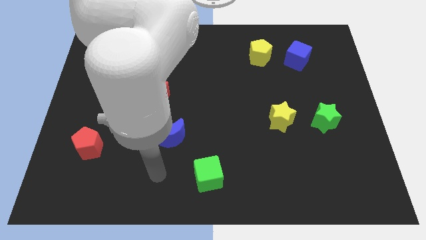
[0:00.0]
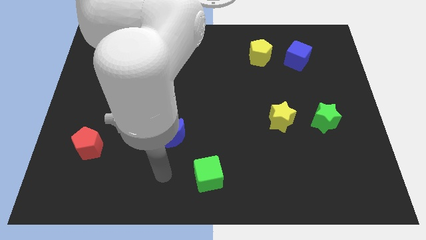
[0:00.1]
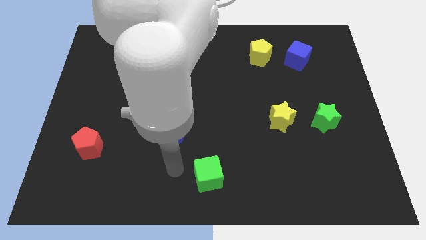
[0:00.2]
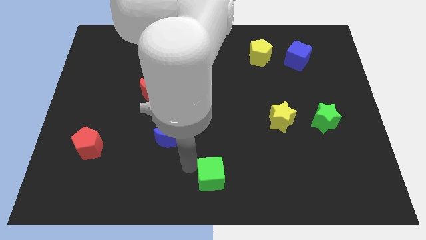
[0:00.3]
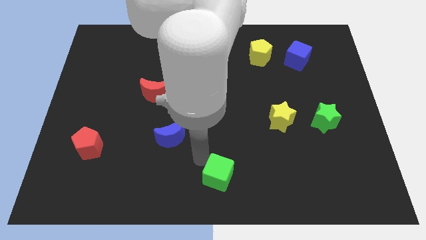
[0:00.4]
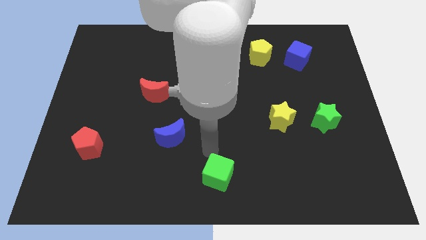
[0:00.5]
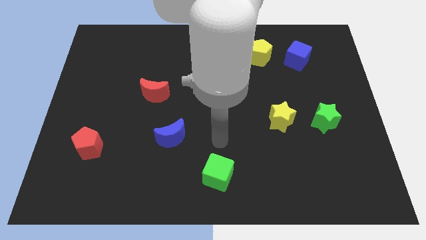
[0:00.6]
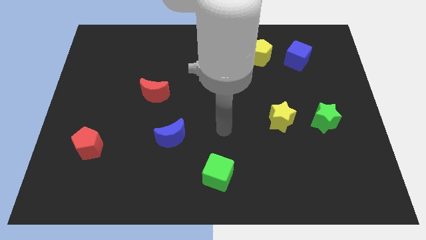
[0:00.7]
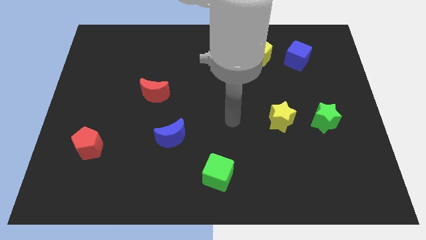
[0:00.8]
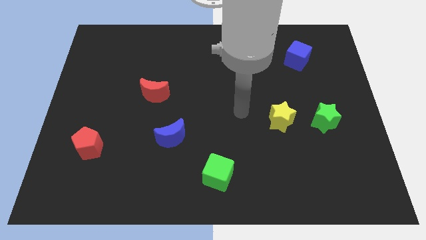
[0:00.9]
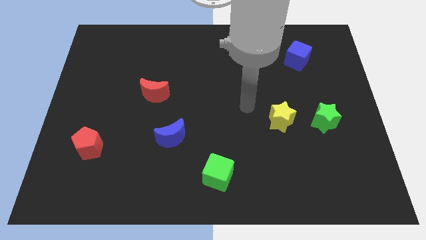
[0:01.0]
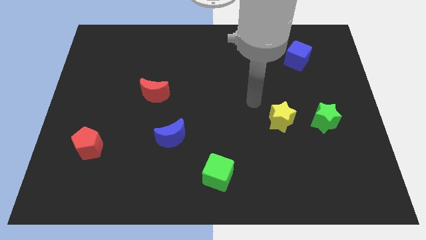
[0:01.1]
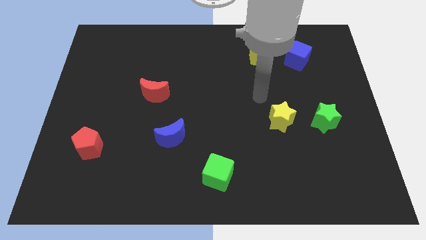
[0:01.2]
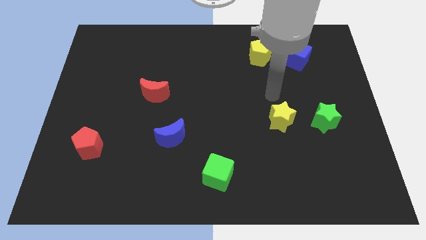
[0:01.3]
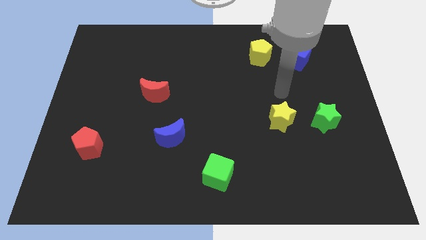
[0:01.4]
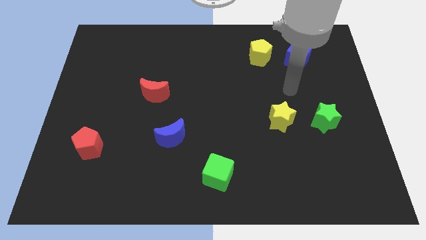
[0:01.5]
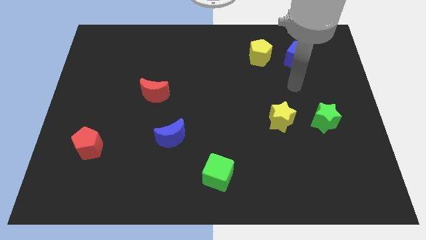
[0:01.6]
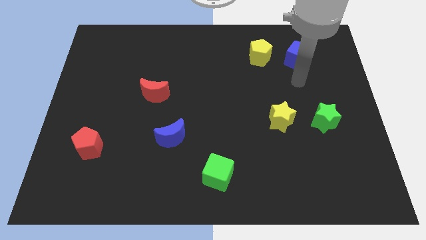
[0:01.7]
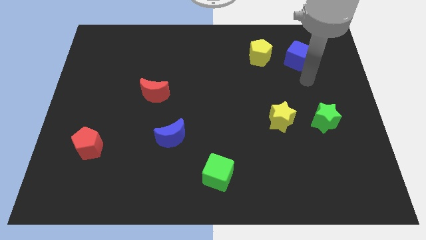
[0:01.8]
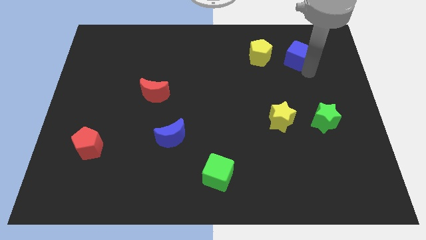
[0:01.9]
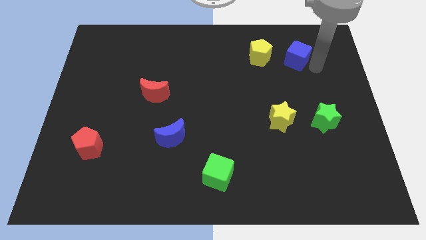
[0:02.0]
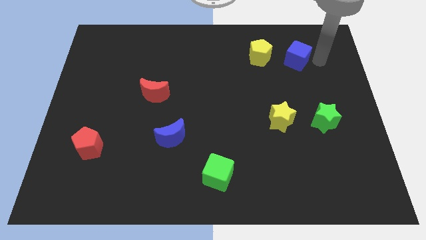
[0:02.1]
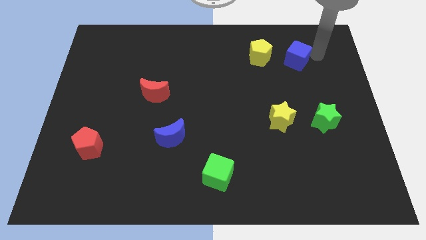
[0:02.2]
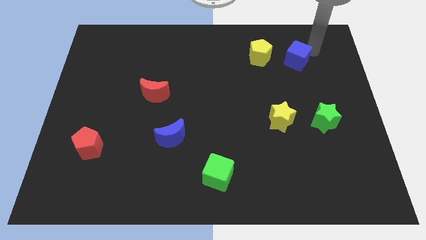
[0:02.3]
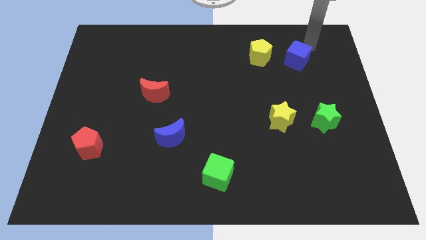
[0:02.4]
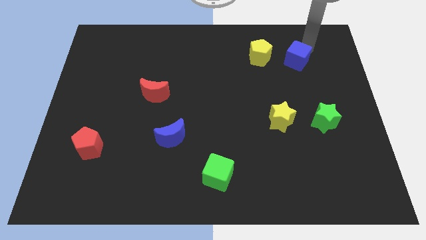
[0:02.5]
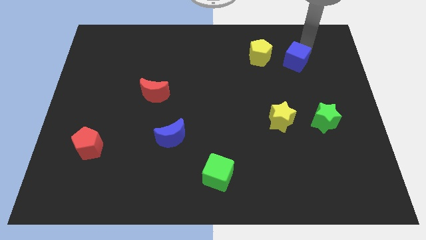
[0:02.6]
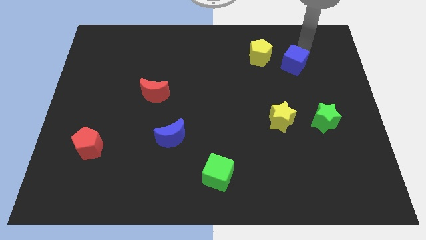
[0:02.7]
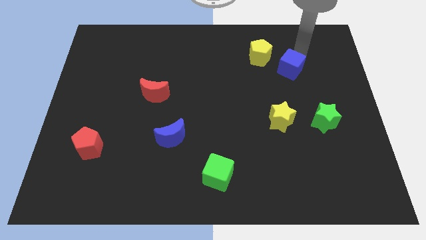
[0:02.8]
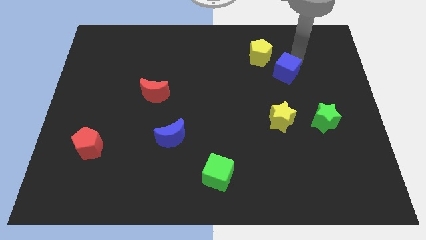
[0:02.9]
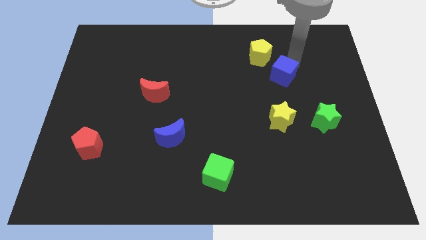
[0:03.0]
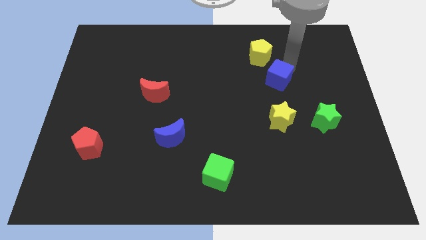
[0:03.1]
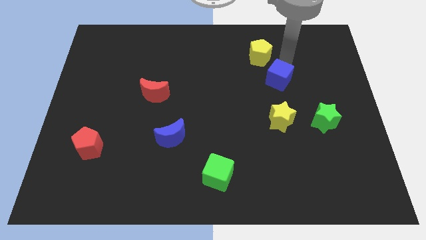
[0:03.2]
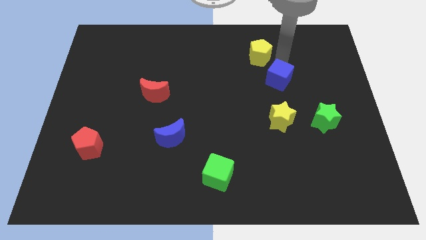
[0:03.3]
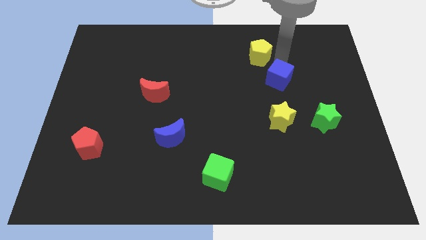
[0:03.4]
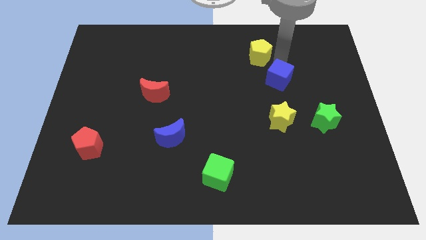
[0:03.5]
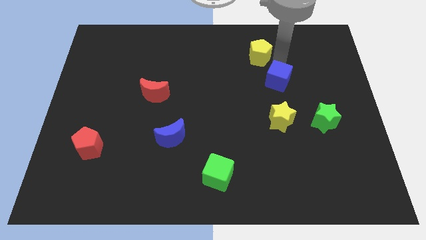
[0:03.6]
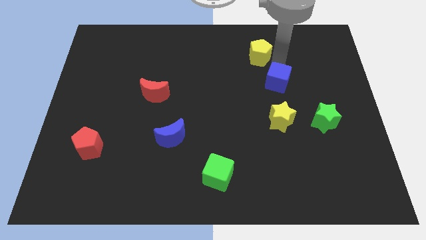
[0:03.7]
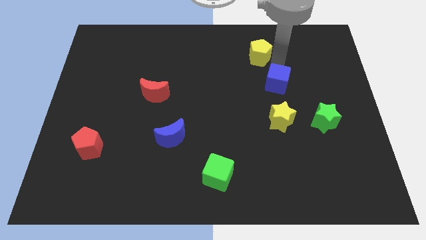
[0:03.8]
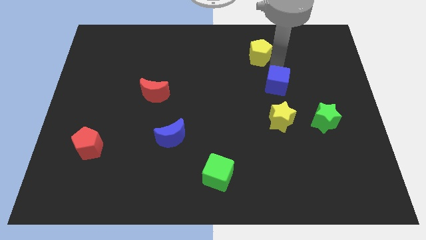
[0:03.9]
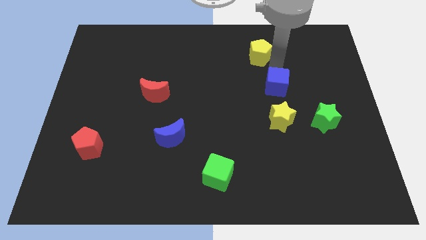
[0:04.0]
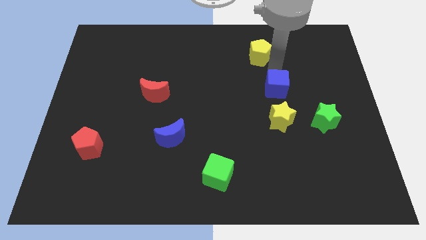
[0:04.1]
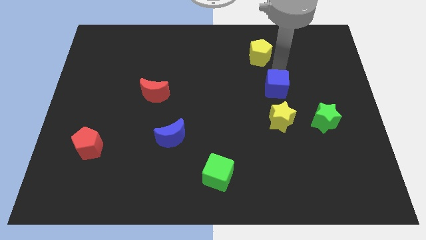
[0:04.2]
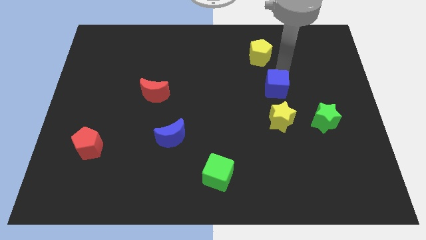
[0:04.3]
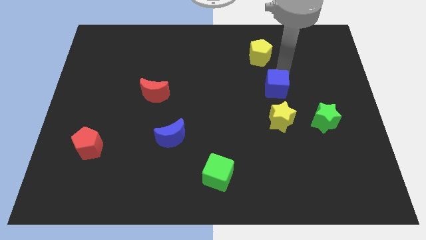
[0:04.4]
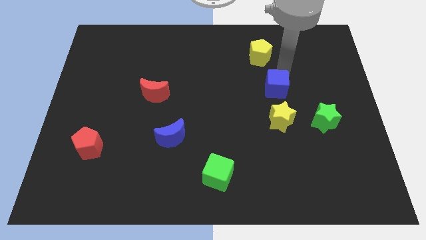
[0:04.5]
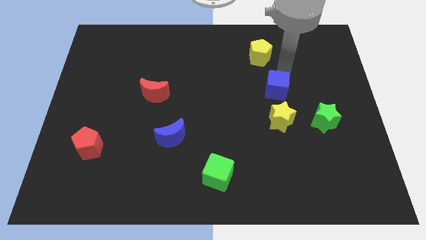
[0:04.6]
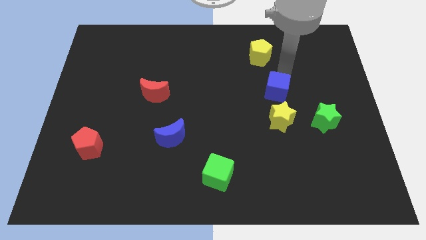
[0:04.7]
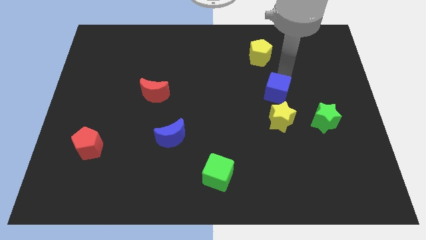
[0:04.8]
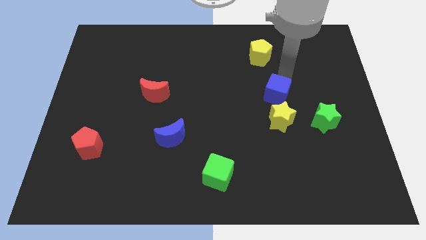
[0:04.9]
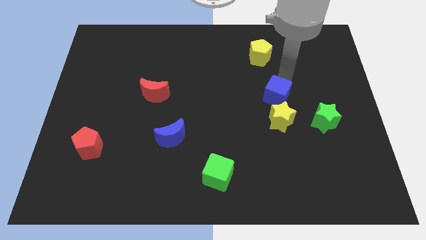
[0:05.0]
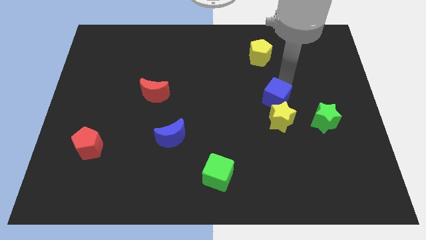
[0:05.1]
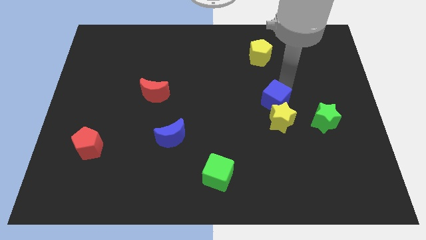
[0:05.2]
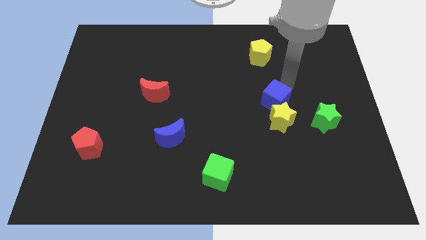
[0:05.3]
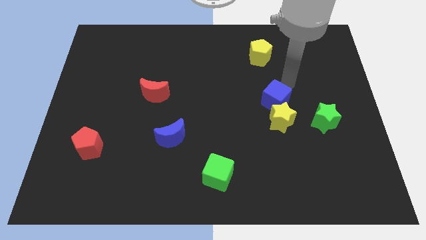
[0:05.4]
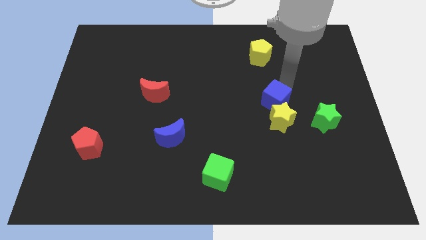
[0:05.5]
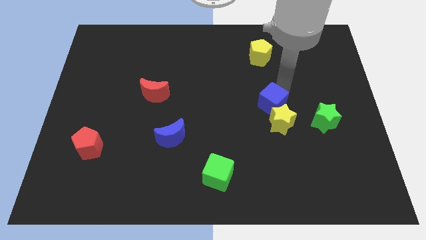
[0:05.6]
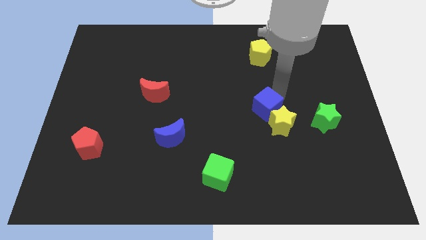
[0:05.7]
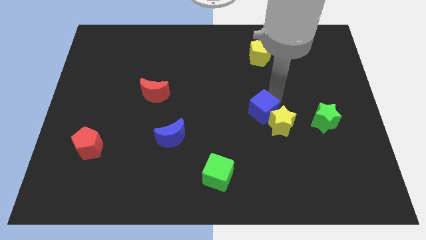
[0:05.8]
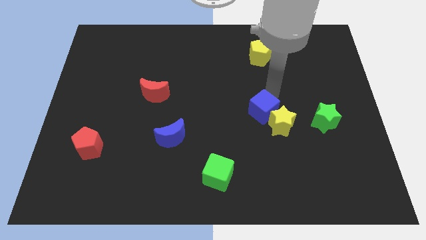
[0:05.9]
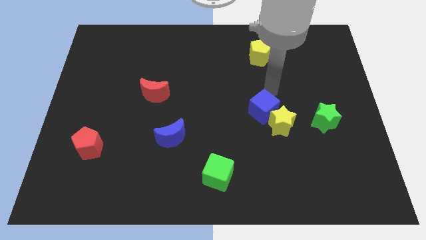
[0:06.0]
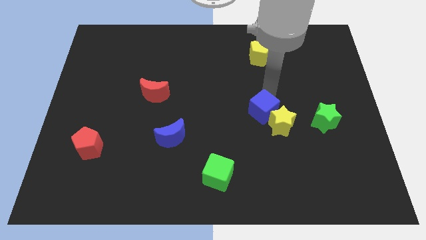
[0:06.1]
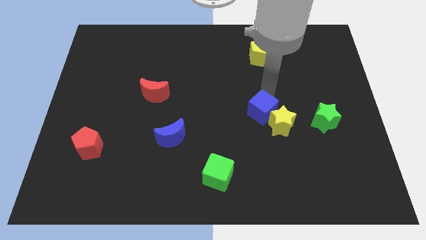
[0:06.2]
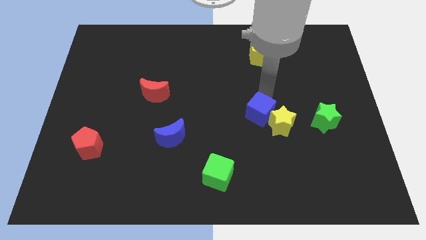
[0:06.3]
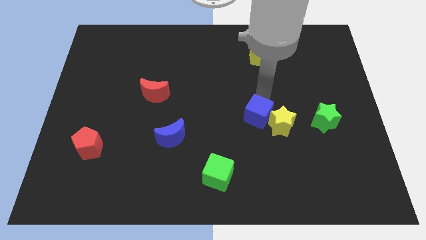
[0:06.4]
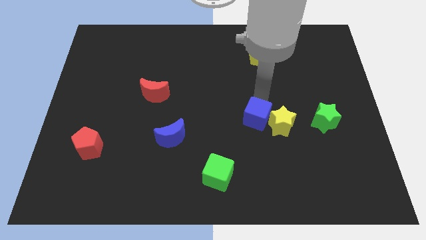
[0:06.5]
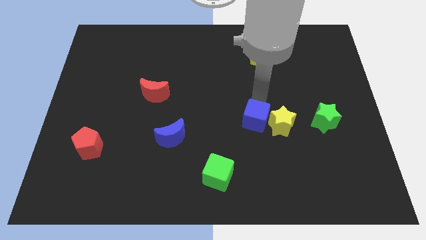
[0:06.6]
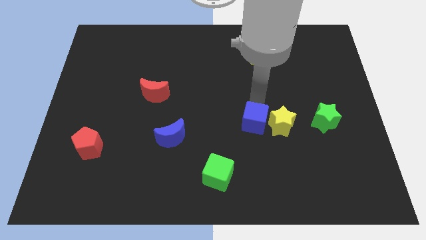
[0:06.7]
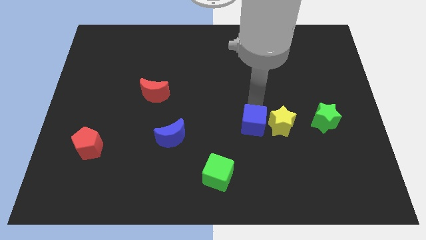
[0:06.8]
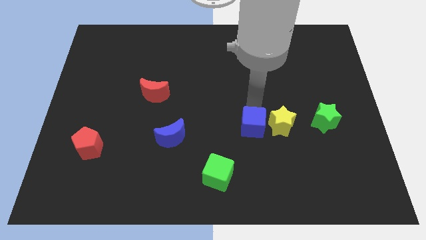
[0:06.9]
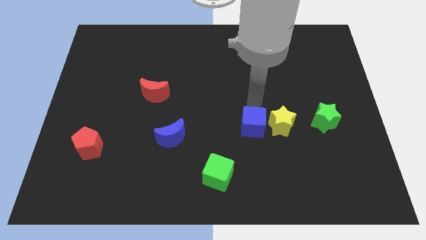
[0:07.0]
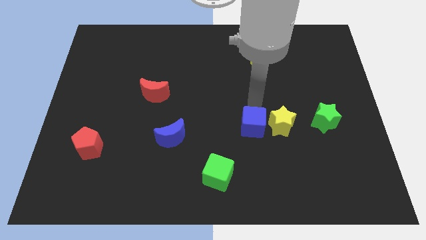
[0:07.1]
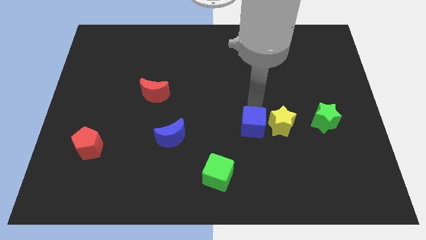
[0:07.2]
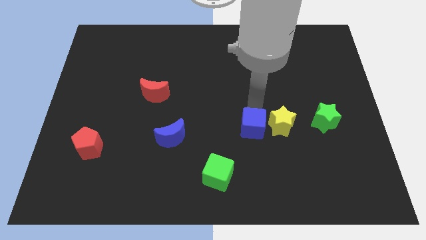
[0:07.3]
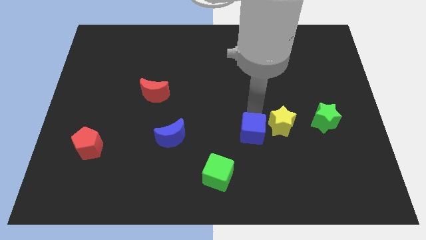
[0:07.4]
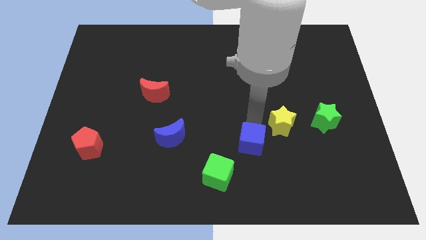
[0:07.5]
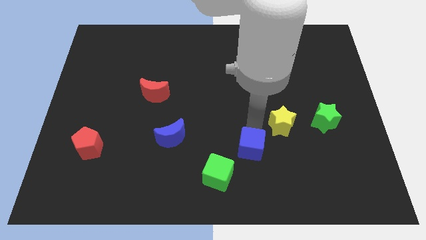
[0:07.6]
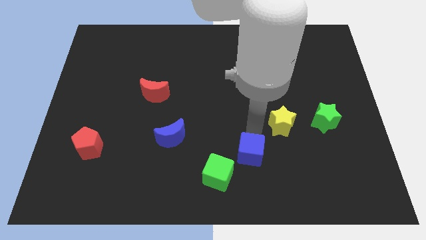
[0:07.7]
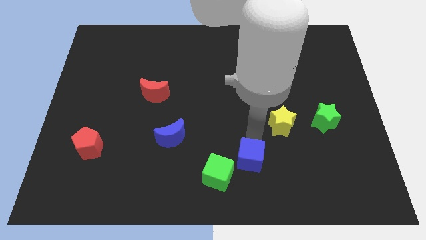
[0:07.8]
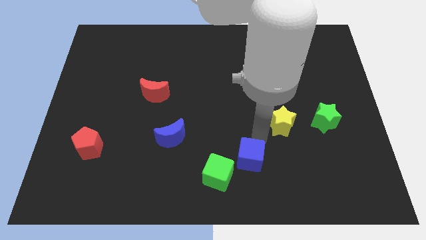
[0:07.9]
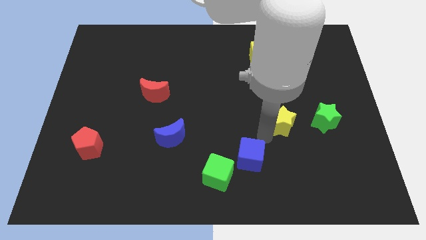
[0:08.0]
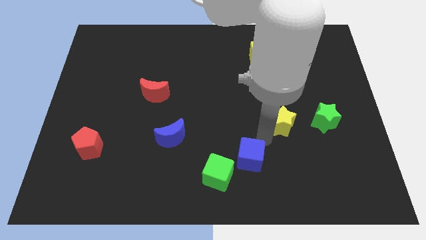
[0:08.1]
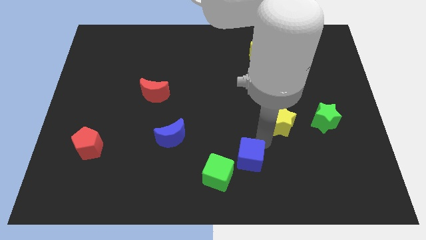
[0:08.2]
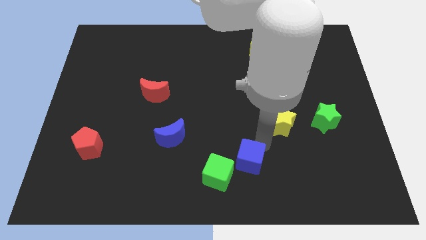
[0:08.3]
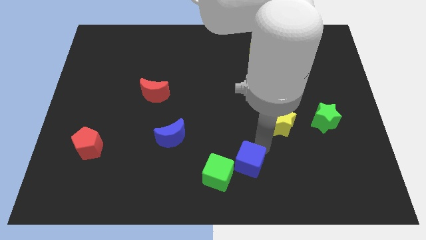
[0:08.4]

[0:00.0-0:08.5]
put the blue cube to the bottom
